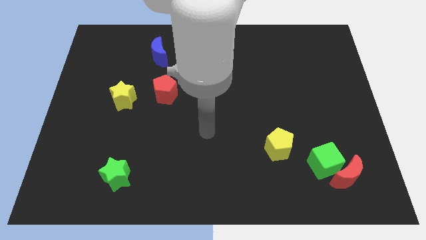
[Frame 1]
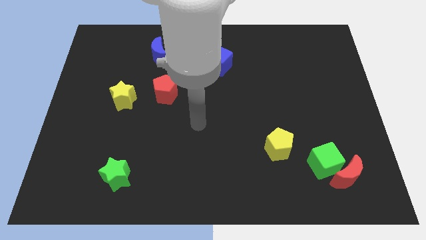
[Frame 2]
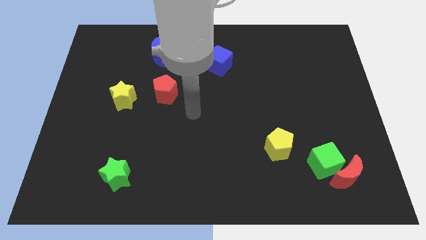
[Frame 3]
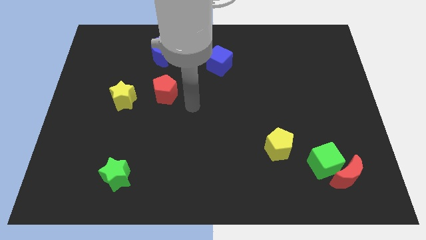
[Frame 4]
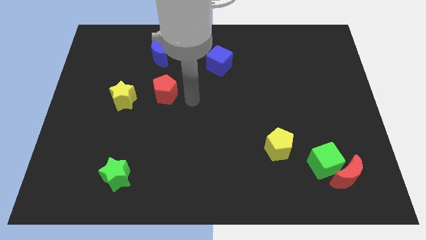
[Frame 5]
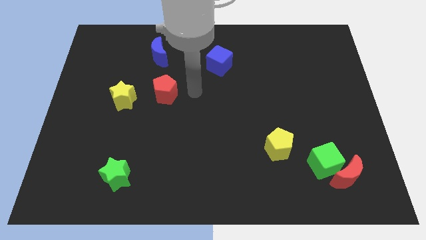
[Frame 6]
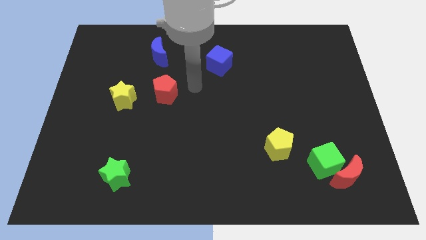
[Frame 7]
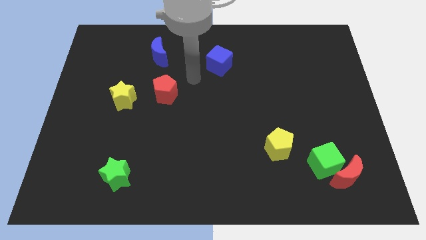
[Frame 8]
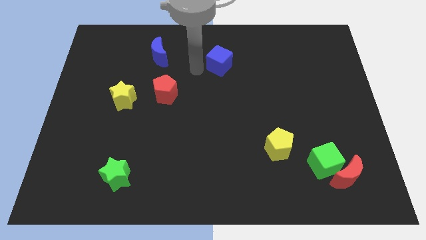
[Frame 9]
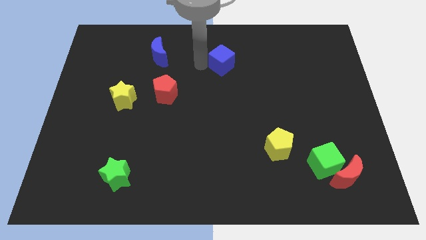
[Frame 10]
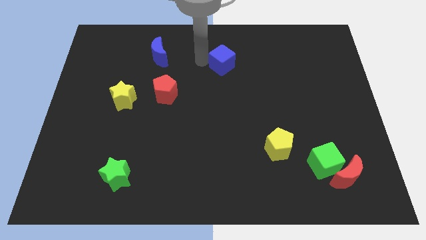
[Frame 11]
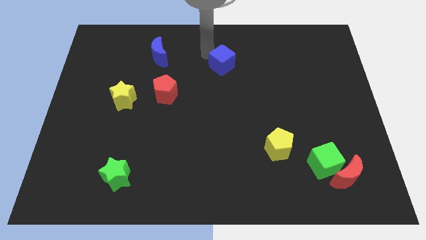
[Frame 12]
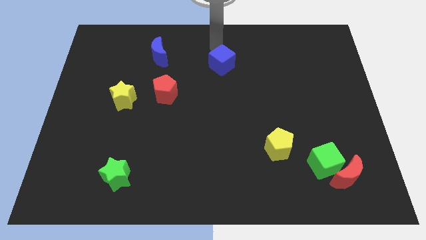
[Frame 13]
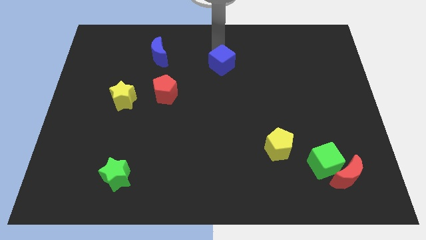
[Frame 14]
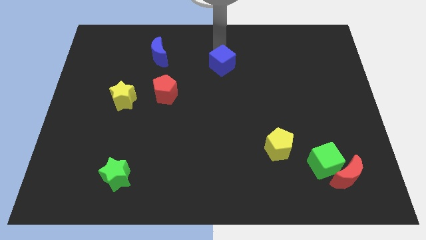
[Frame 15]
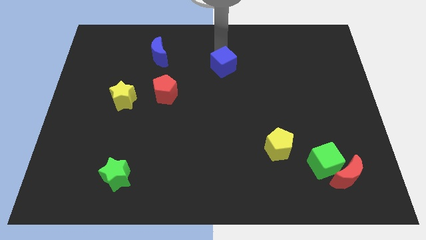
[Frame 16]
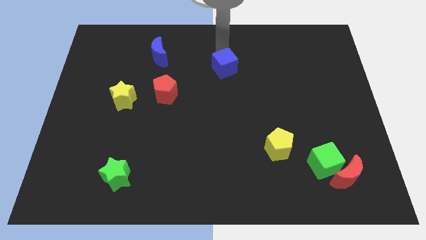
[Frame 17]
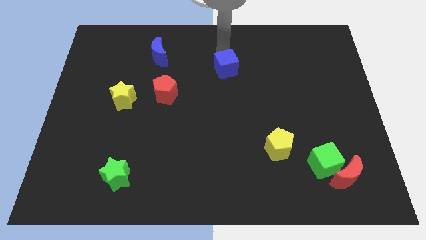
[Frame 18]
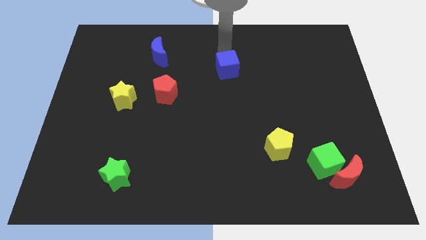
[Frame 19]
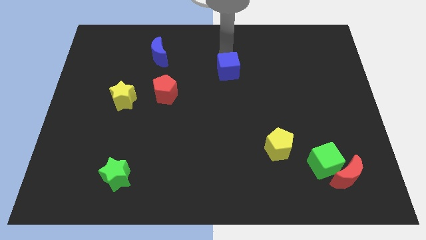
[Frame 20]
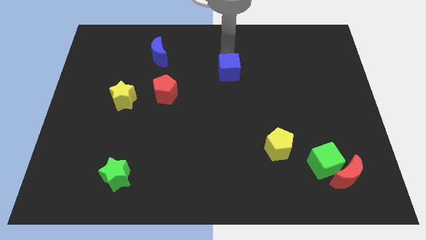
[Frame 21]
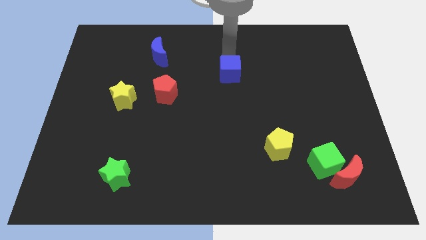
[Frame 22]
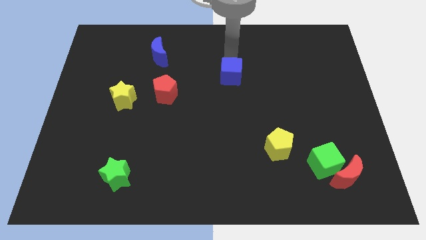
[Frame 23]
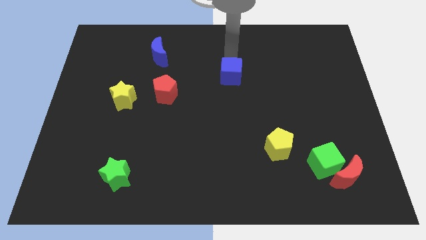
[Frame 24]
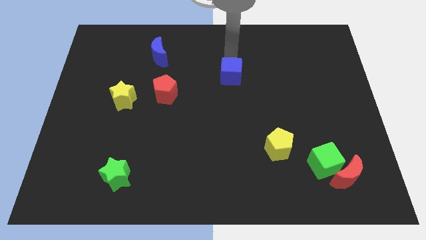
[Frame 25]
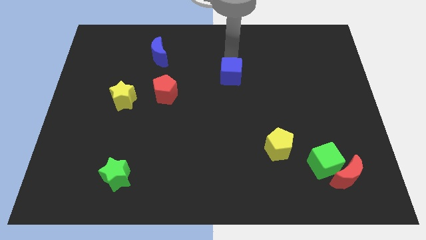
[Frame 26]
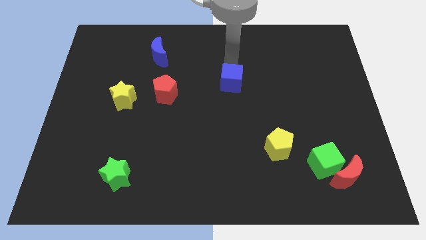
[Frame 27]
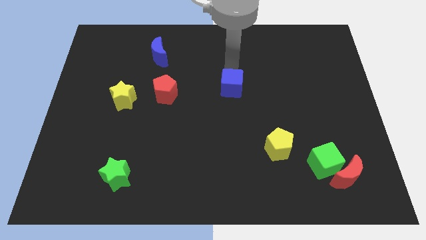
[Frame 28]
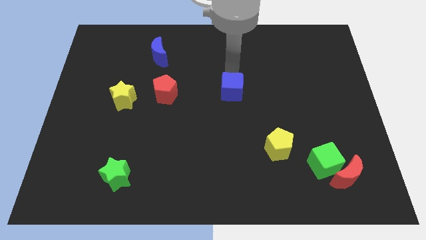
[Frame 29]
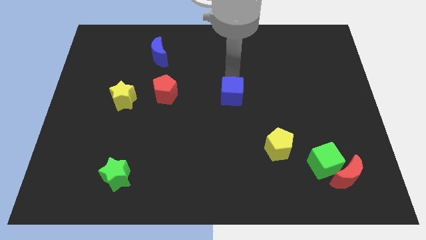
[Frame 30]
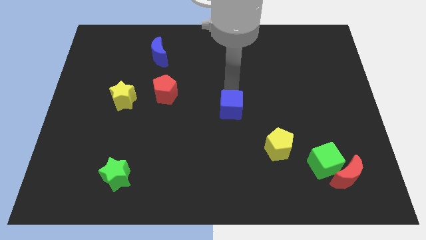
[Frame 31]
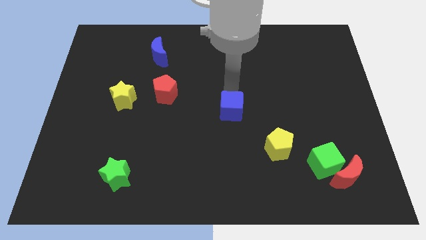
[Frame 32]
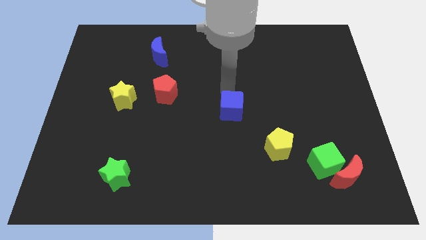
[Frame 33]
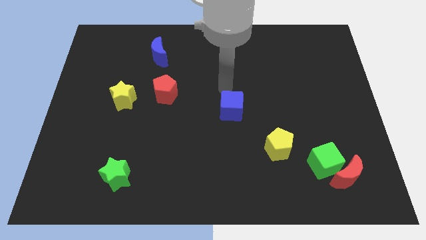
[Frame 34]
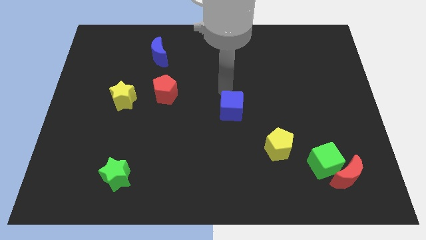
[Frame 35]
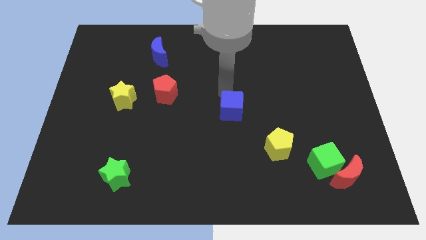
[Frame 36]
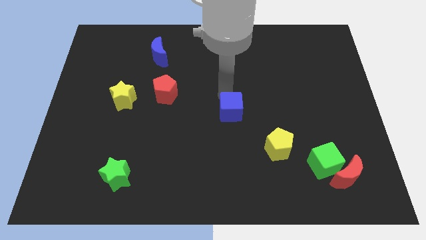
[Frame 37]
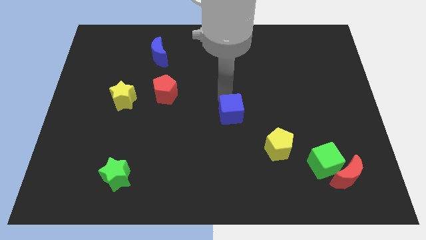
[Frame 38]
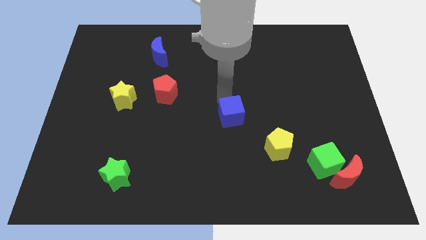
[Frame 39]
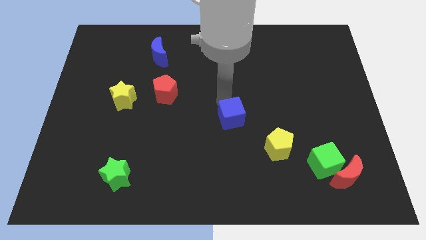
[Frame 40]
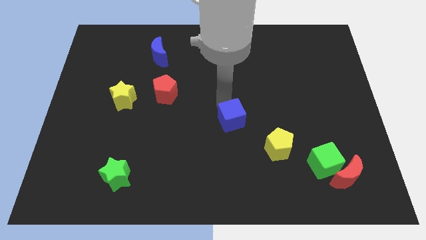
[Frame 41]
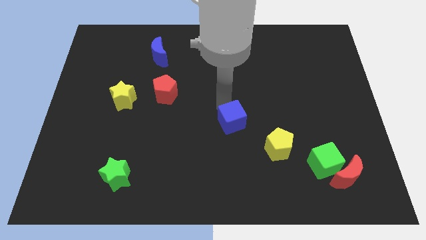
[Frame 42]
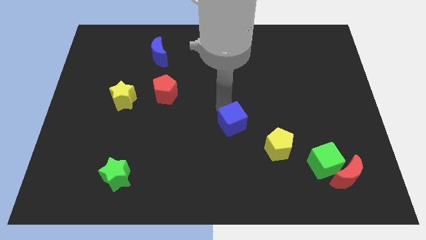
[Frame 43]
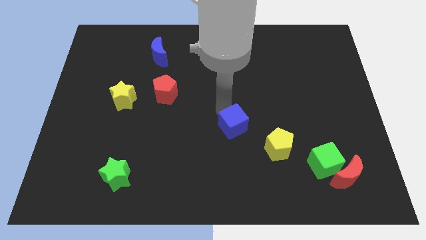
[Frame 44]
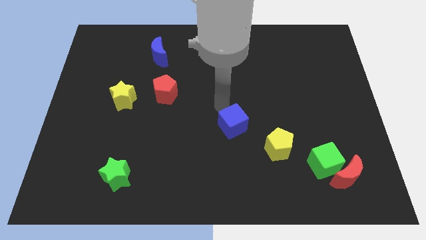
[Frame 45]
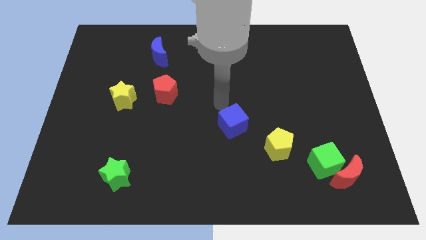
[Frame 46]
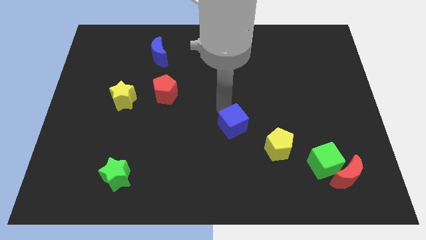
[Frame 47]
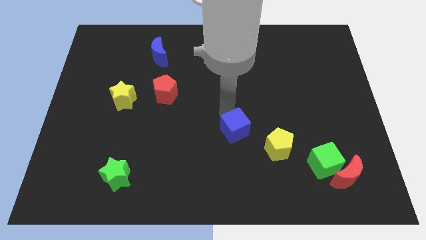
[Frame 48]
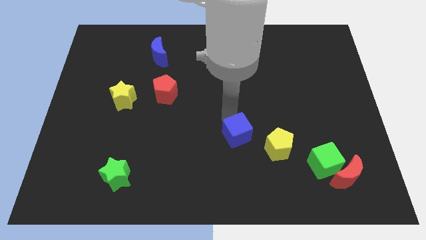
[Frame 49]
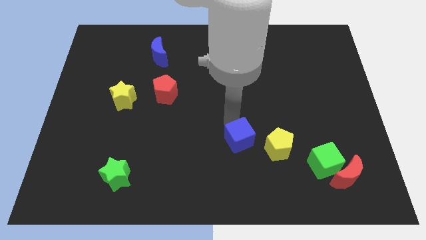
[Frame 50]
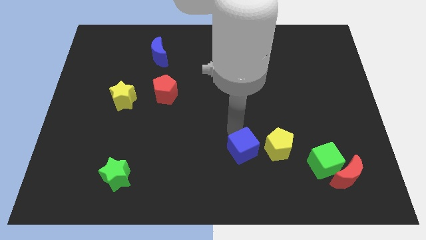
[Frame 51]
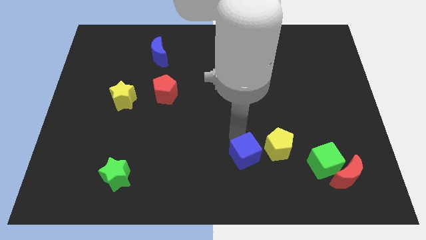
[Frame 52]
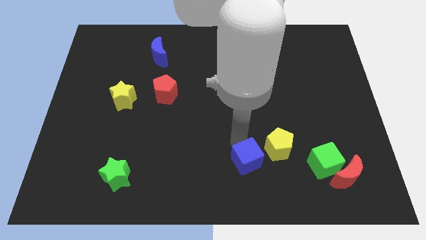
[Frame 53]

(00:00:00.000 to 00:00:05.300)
slide the blue cube just left of the green cube

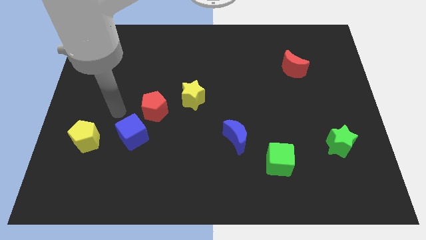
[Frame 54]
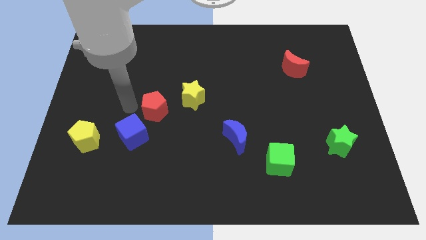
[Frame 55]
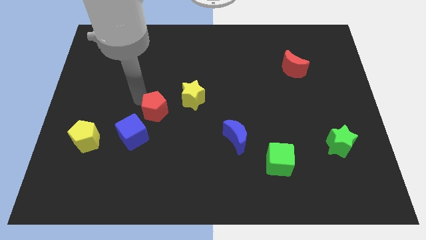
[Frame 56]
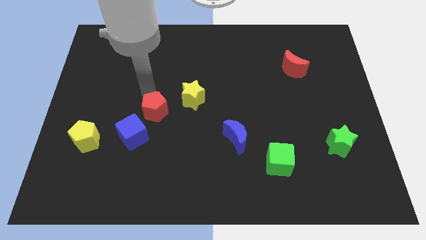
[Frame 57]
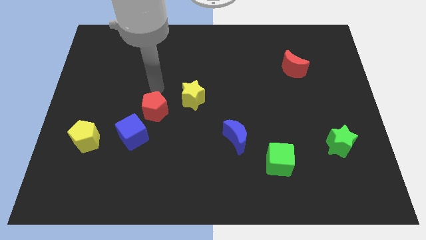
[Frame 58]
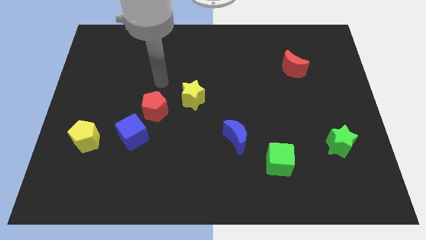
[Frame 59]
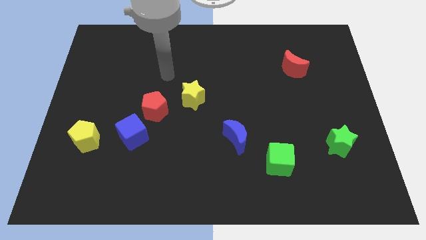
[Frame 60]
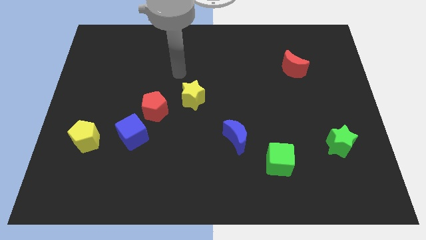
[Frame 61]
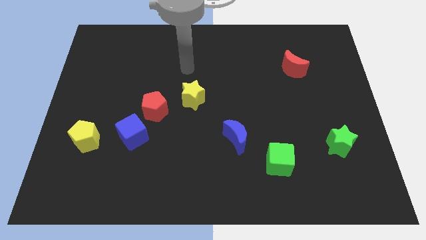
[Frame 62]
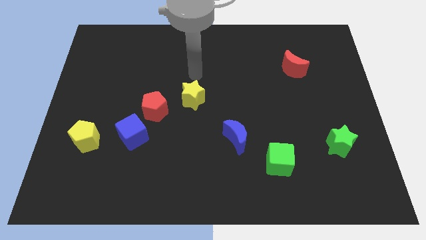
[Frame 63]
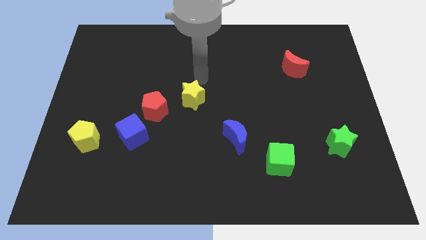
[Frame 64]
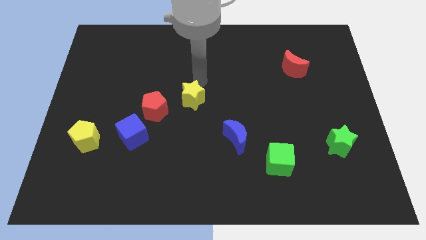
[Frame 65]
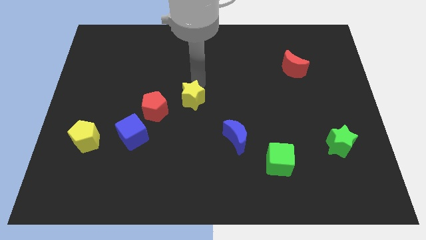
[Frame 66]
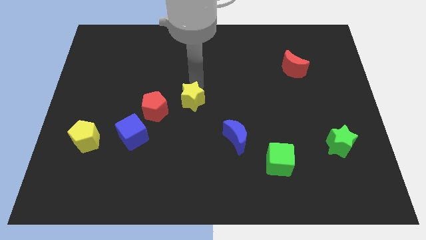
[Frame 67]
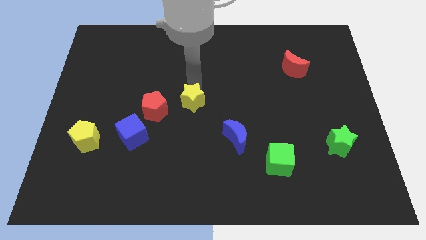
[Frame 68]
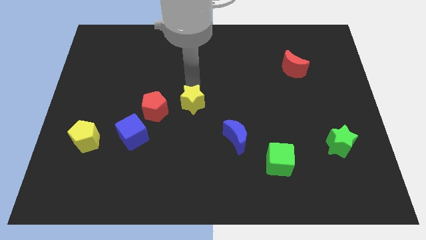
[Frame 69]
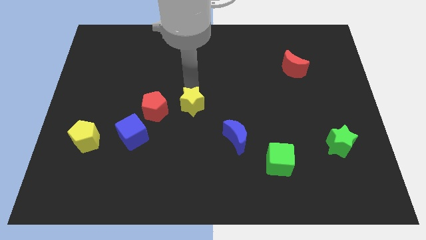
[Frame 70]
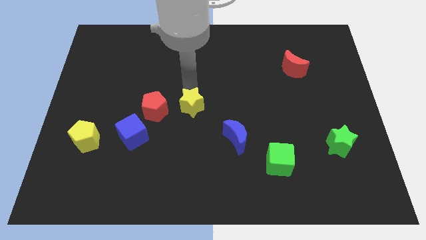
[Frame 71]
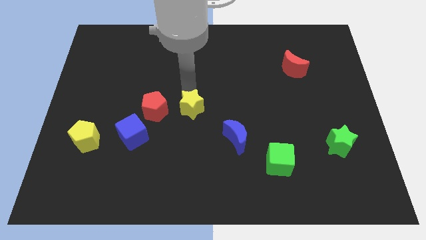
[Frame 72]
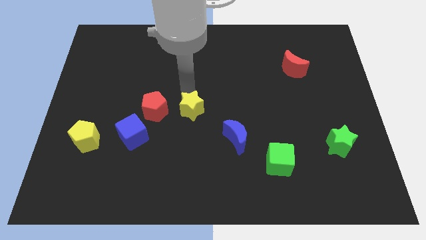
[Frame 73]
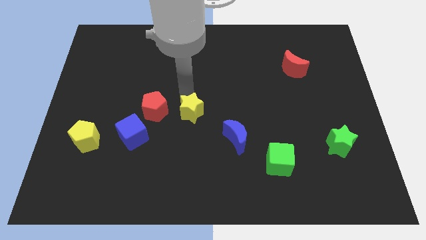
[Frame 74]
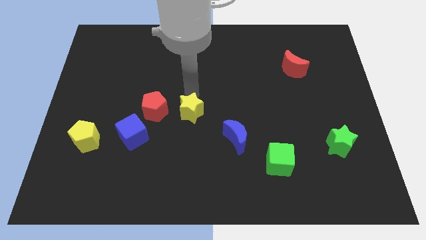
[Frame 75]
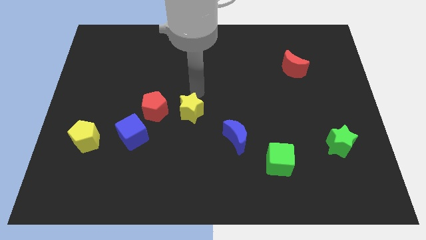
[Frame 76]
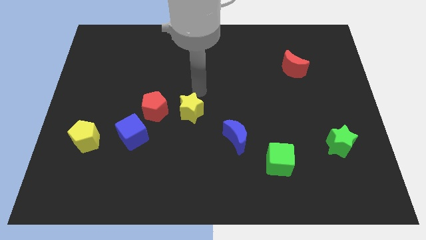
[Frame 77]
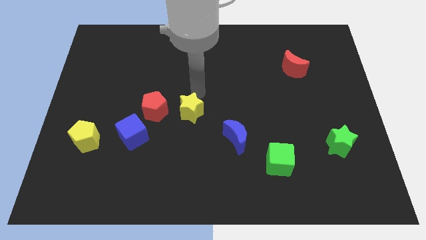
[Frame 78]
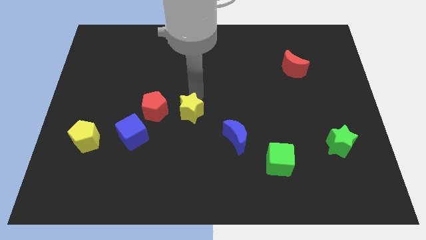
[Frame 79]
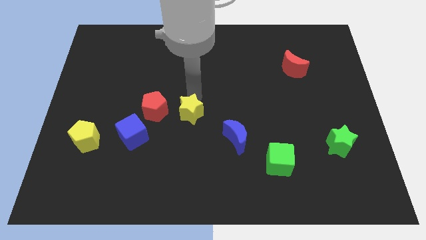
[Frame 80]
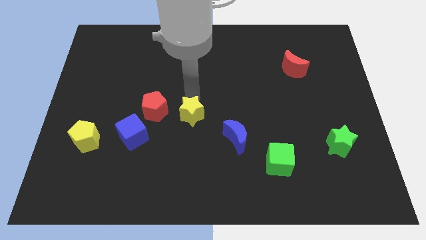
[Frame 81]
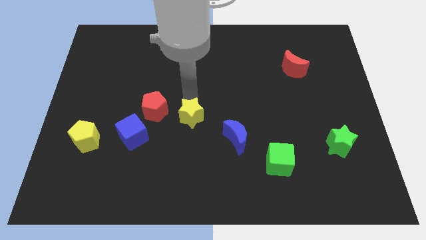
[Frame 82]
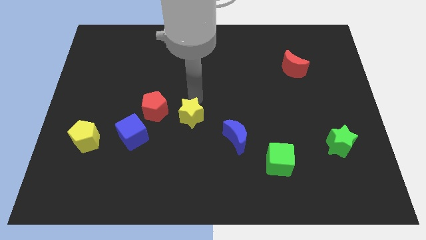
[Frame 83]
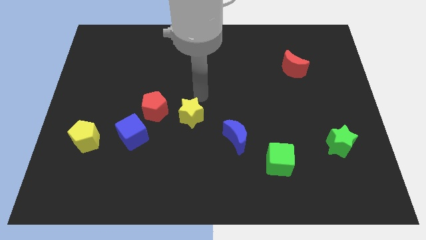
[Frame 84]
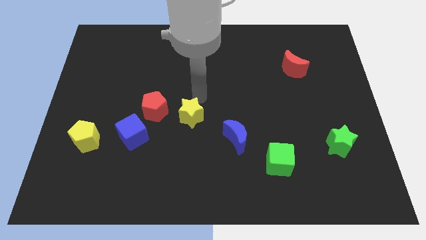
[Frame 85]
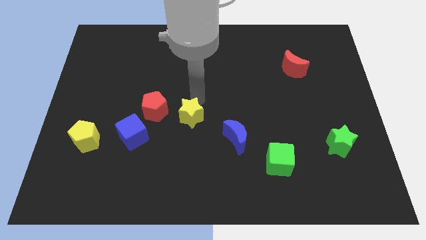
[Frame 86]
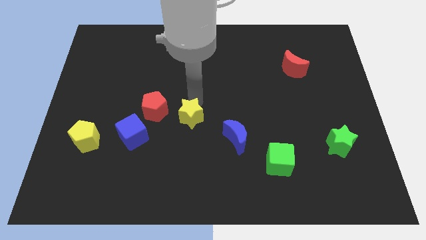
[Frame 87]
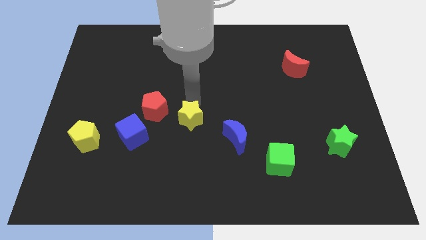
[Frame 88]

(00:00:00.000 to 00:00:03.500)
push the yellow star just right of the blue cube
